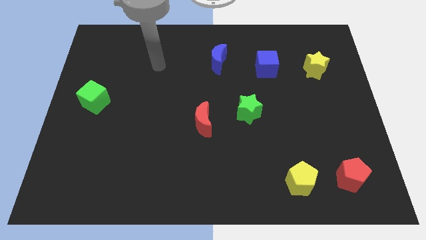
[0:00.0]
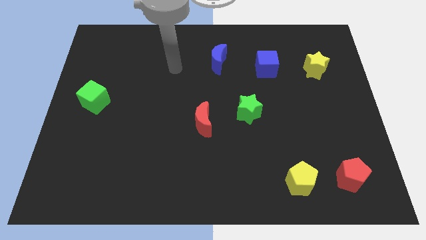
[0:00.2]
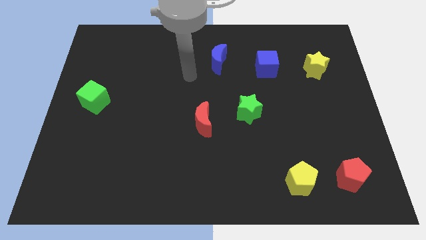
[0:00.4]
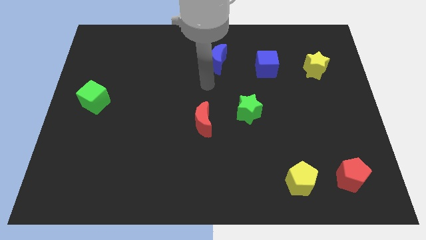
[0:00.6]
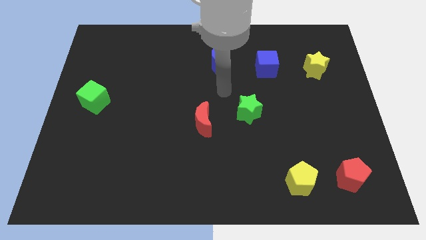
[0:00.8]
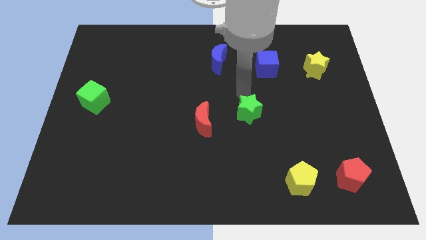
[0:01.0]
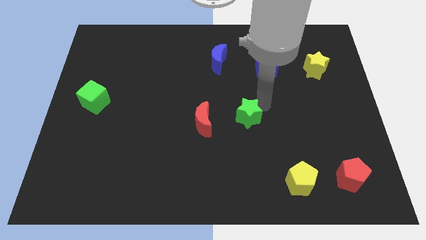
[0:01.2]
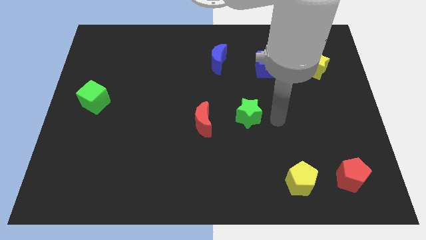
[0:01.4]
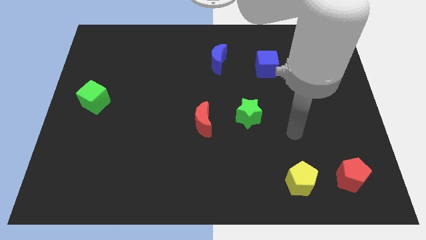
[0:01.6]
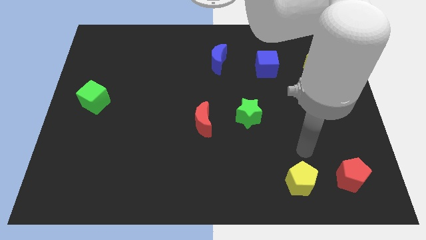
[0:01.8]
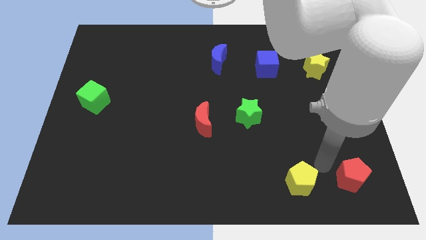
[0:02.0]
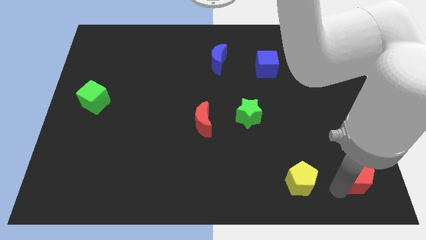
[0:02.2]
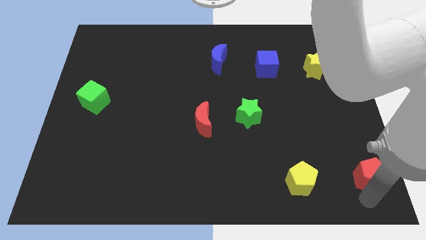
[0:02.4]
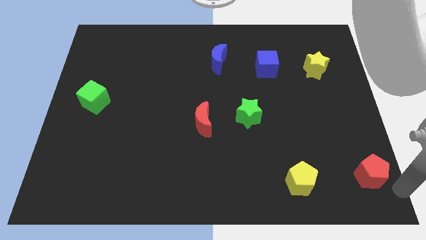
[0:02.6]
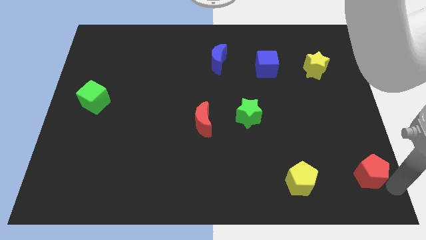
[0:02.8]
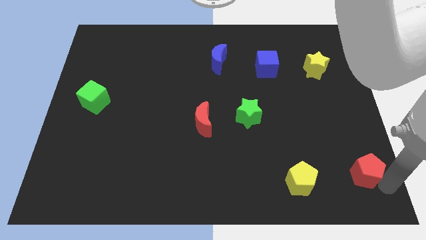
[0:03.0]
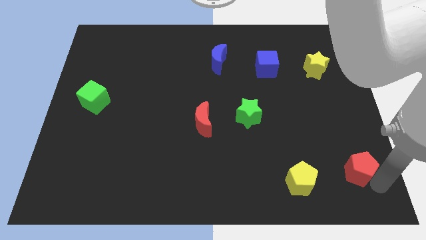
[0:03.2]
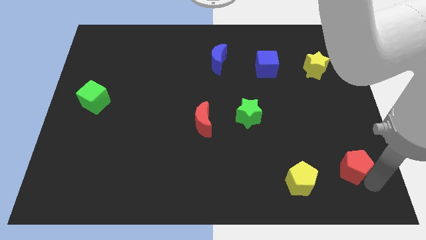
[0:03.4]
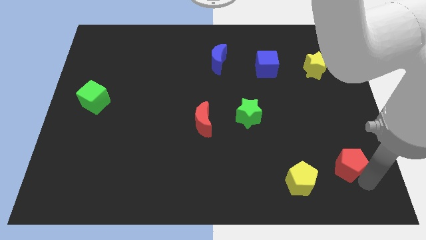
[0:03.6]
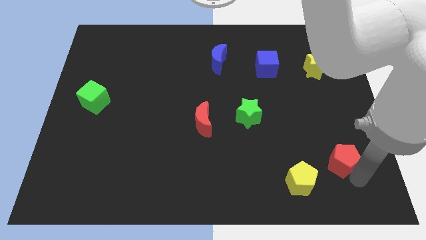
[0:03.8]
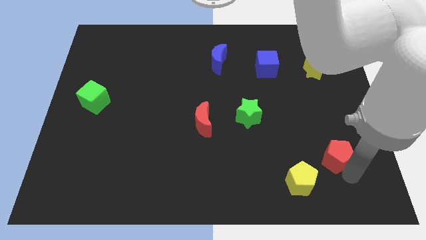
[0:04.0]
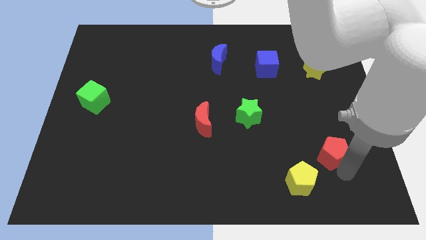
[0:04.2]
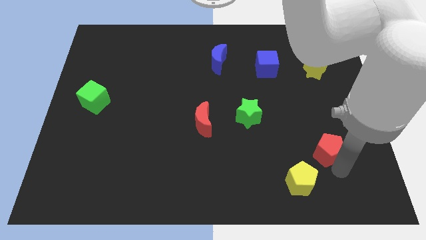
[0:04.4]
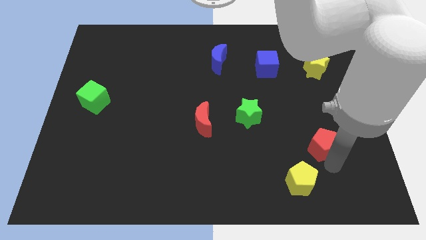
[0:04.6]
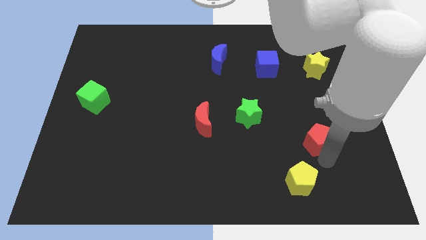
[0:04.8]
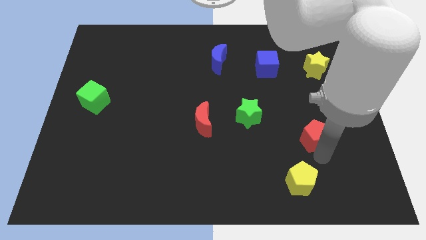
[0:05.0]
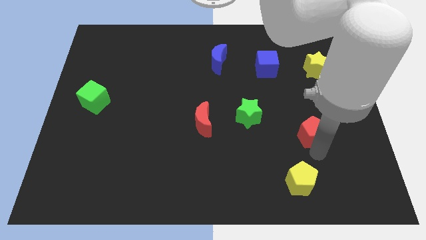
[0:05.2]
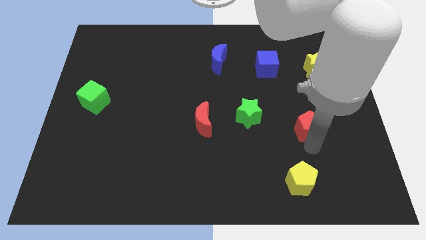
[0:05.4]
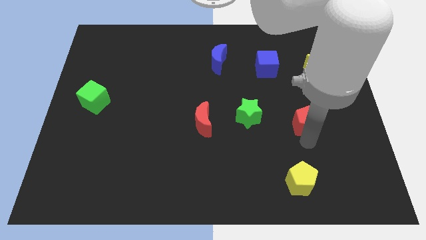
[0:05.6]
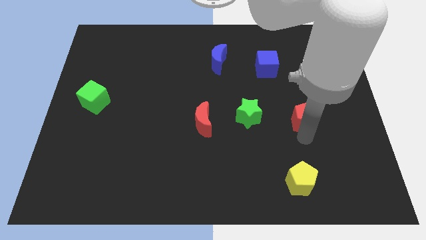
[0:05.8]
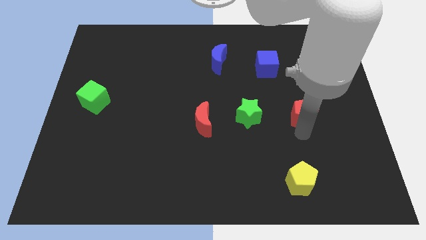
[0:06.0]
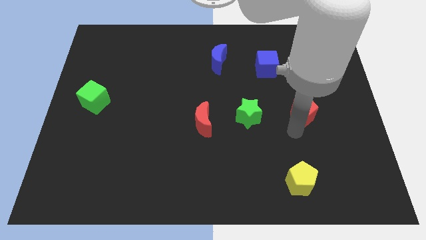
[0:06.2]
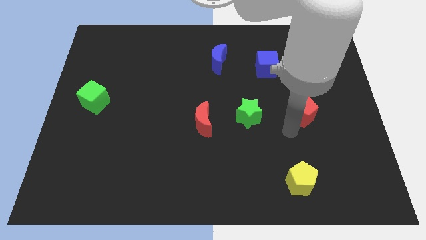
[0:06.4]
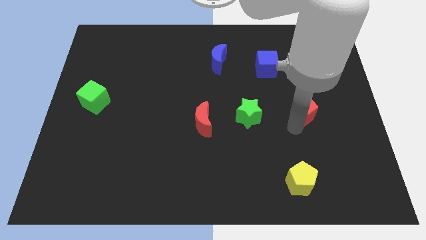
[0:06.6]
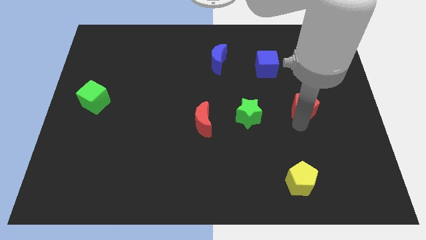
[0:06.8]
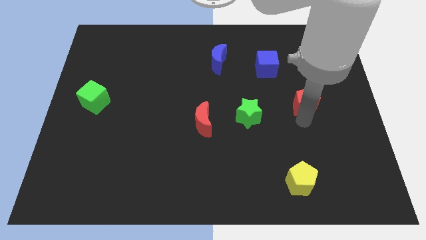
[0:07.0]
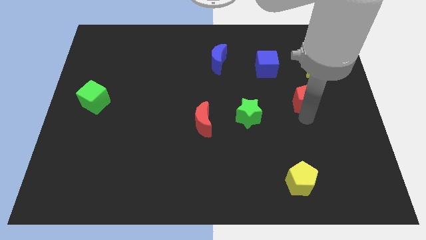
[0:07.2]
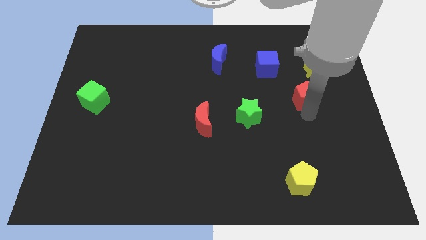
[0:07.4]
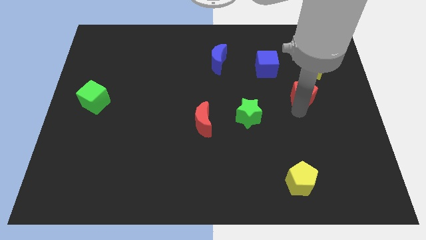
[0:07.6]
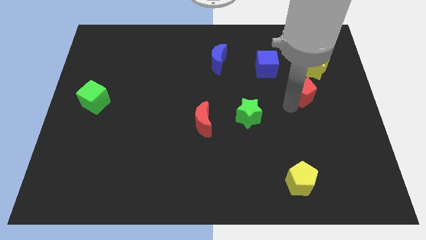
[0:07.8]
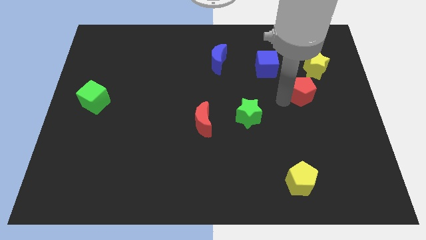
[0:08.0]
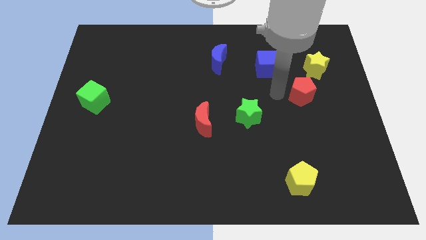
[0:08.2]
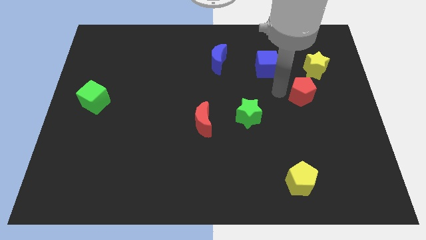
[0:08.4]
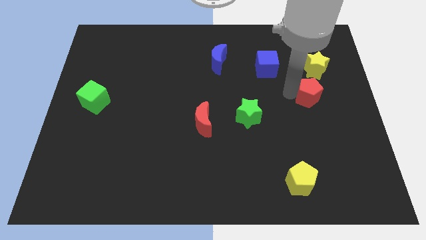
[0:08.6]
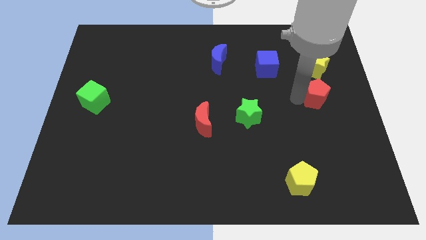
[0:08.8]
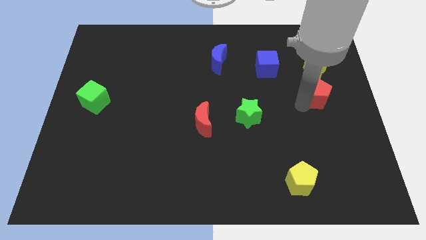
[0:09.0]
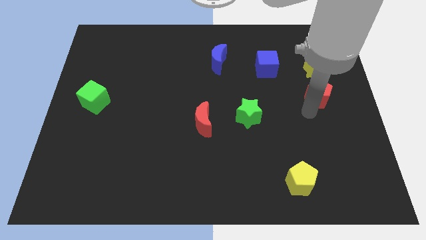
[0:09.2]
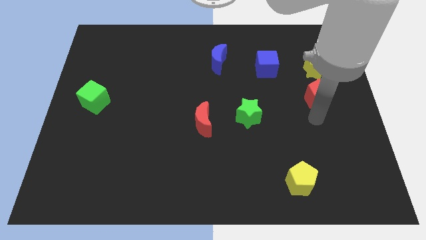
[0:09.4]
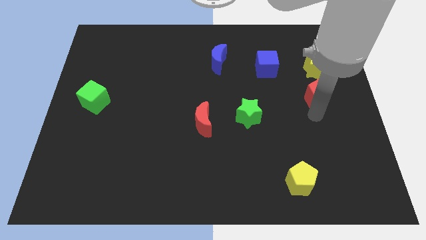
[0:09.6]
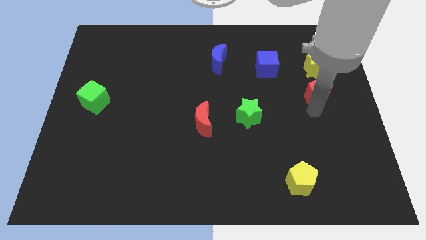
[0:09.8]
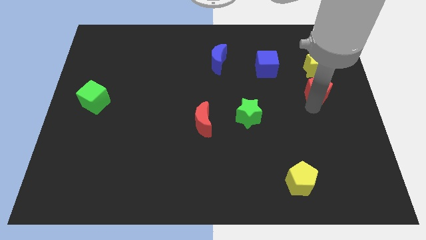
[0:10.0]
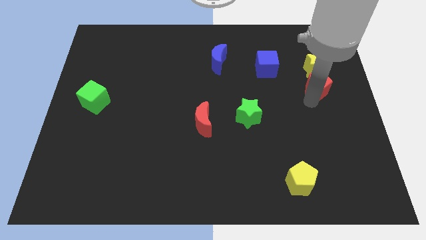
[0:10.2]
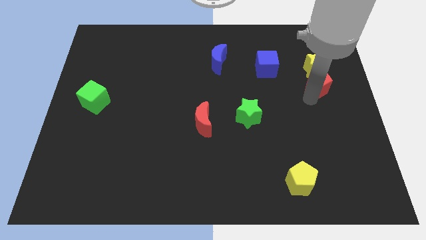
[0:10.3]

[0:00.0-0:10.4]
push the red pentagon to the yellow star

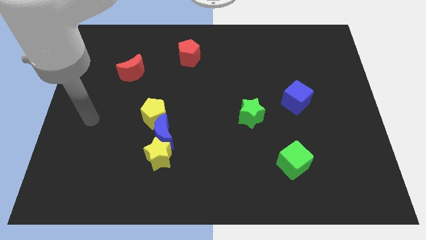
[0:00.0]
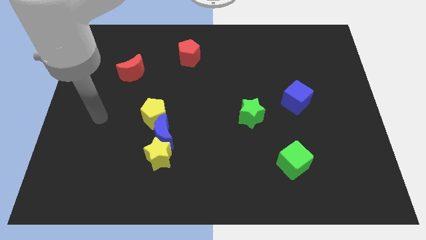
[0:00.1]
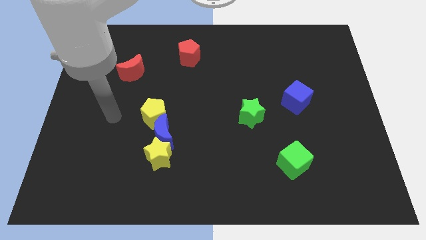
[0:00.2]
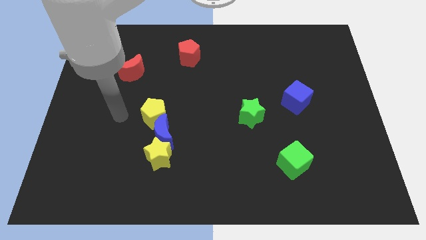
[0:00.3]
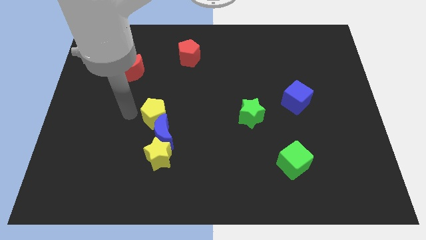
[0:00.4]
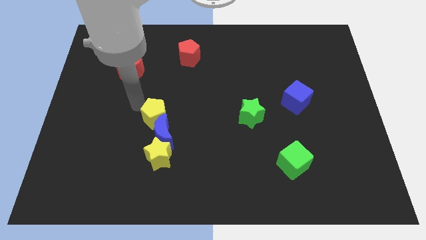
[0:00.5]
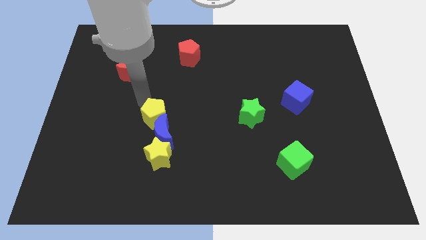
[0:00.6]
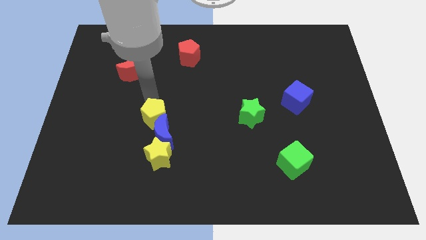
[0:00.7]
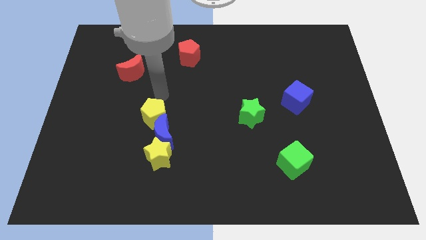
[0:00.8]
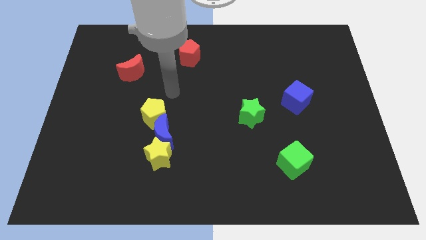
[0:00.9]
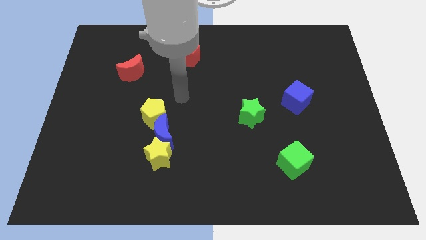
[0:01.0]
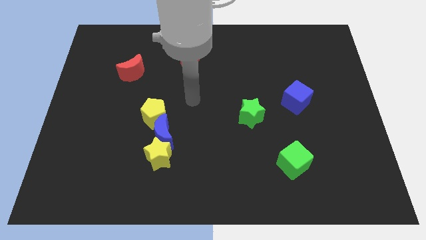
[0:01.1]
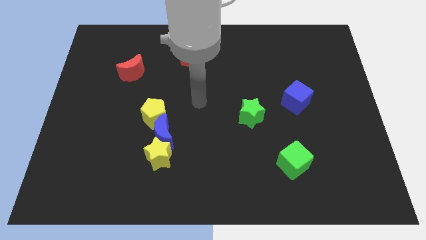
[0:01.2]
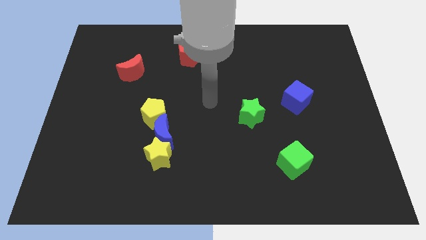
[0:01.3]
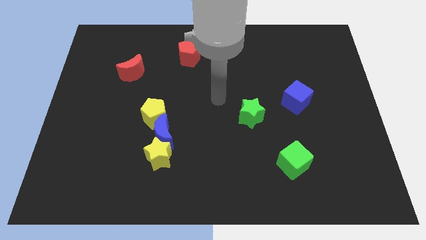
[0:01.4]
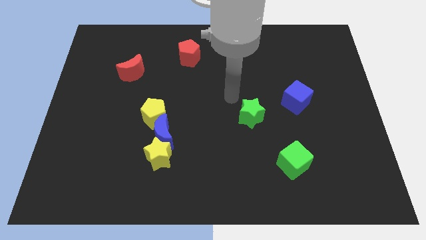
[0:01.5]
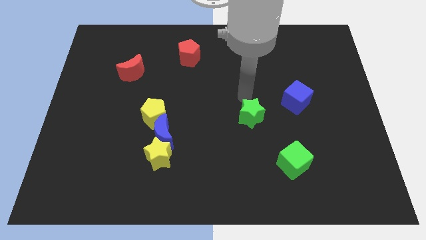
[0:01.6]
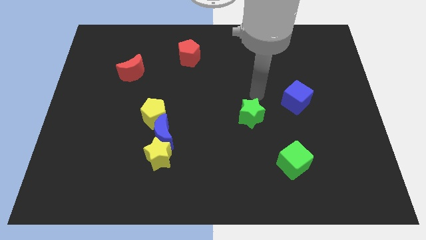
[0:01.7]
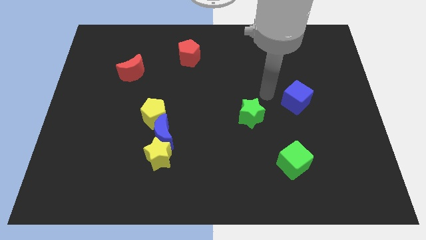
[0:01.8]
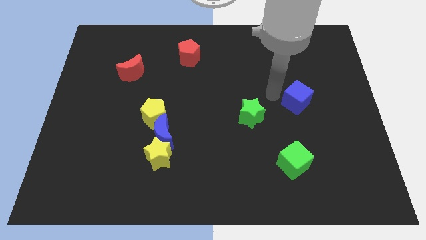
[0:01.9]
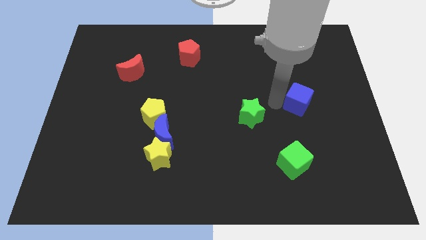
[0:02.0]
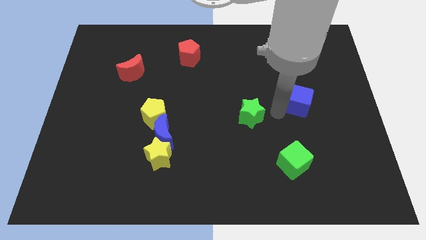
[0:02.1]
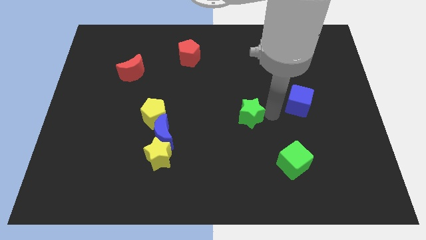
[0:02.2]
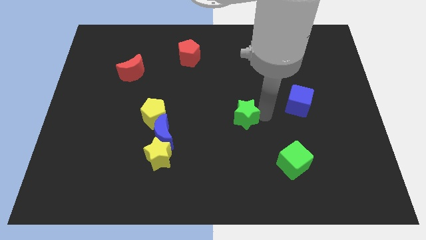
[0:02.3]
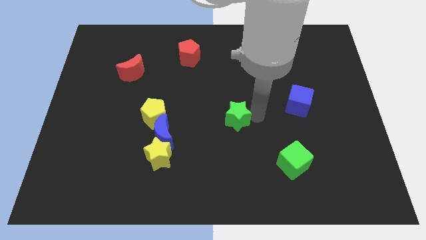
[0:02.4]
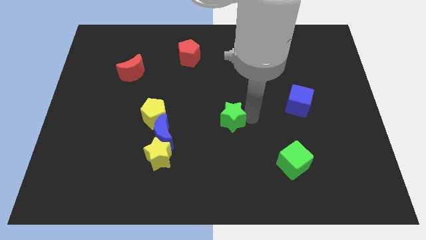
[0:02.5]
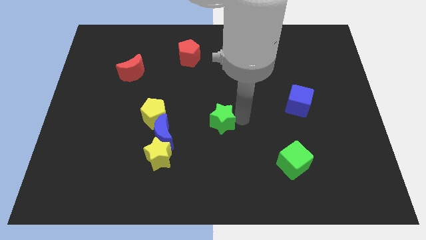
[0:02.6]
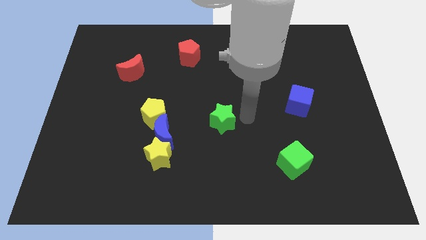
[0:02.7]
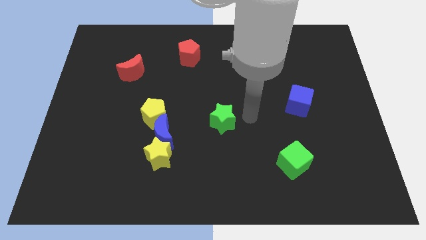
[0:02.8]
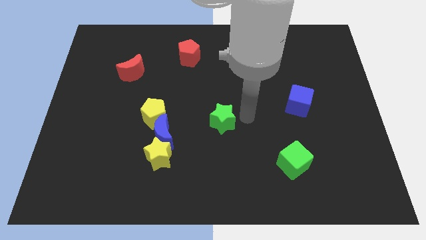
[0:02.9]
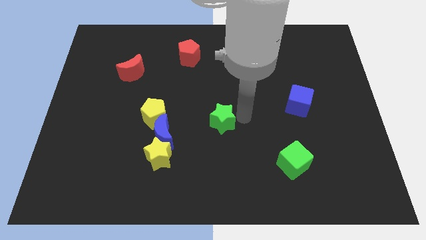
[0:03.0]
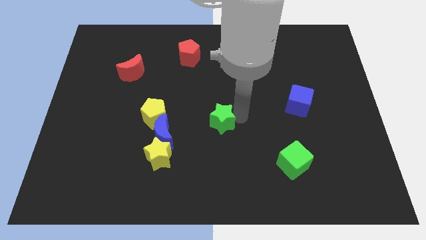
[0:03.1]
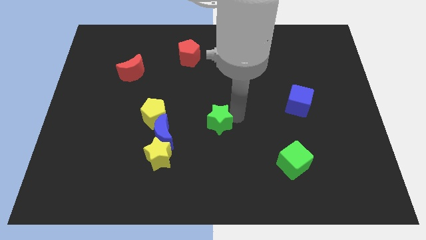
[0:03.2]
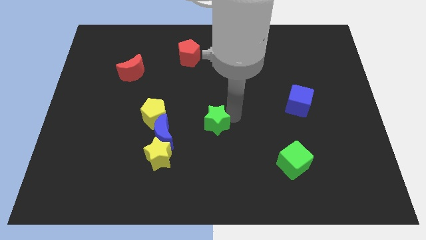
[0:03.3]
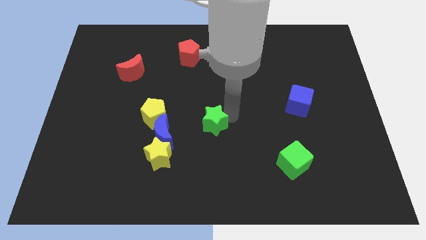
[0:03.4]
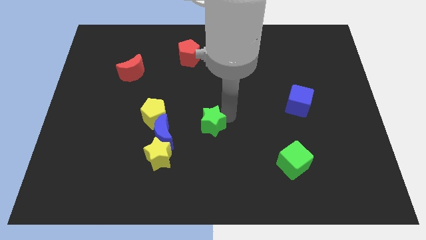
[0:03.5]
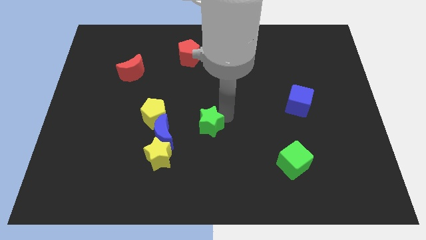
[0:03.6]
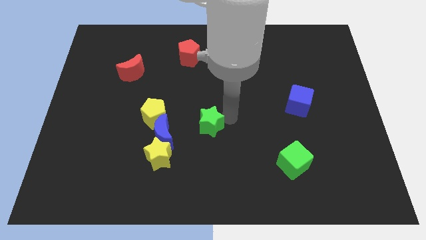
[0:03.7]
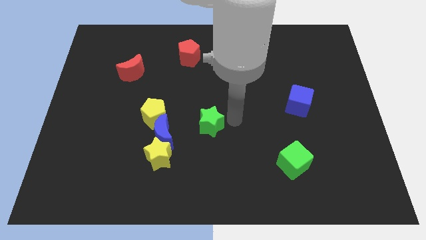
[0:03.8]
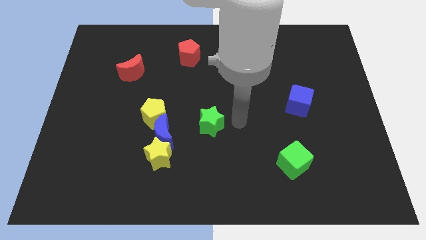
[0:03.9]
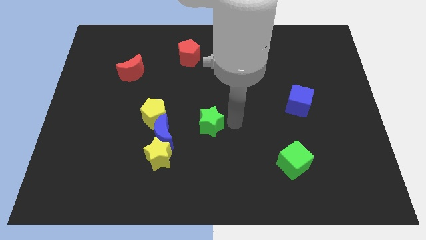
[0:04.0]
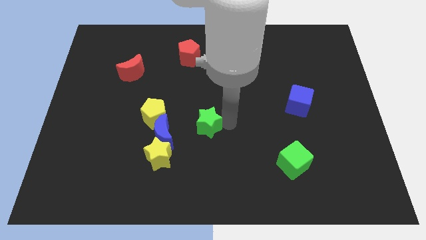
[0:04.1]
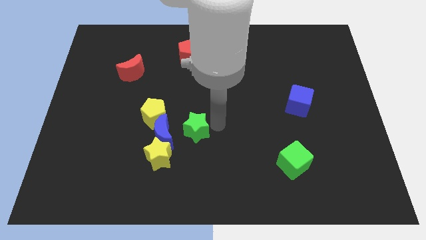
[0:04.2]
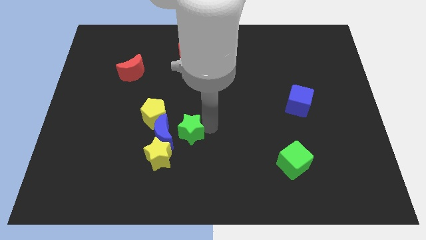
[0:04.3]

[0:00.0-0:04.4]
put the green star towards the blue moon
